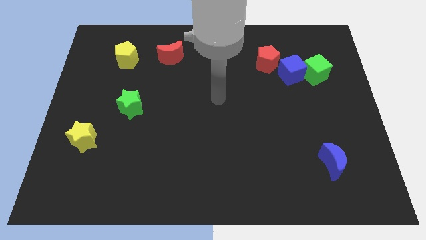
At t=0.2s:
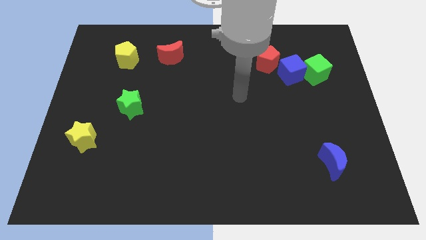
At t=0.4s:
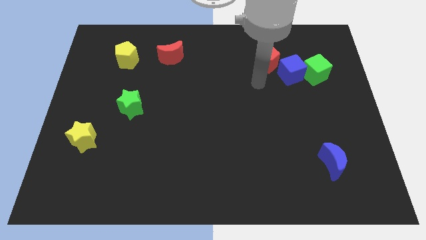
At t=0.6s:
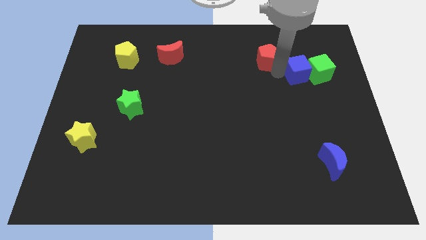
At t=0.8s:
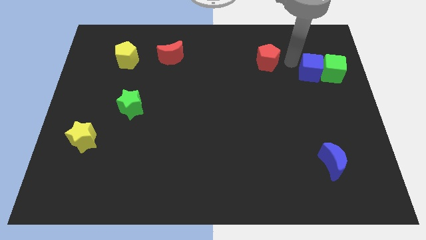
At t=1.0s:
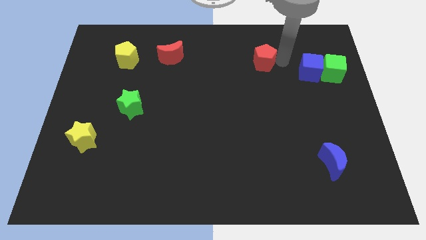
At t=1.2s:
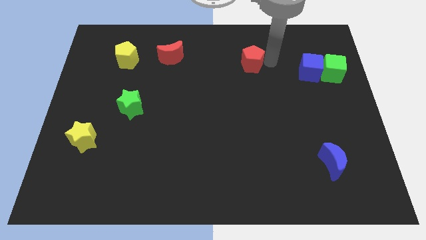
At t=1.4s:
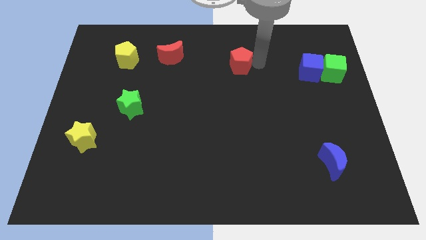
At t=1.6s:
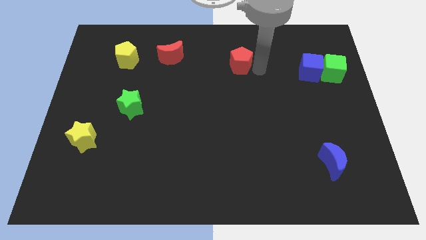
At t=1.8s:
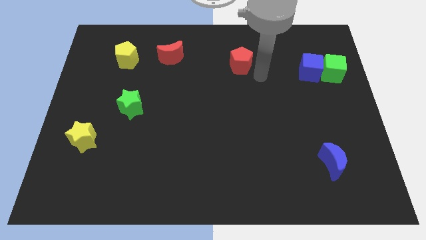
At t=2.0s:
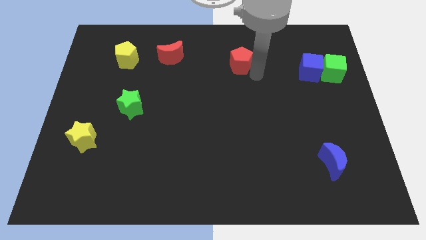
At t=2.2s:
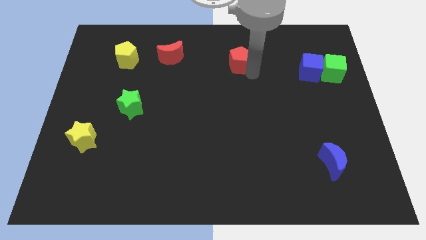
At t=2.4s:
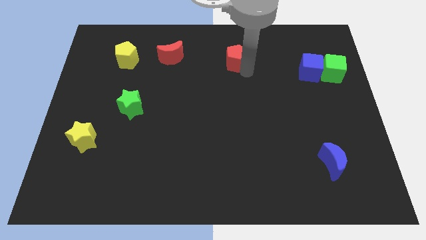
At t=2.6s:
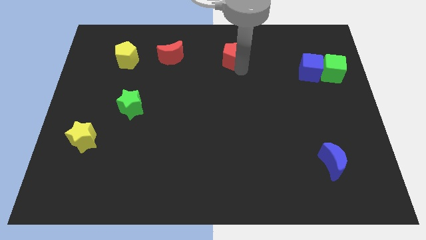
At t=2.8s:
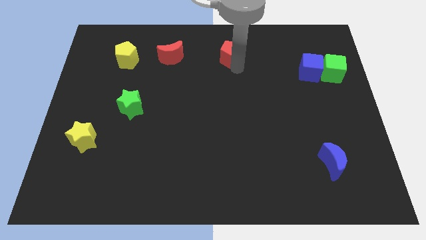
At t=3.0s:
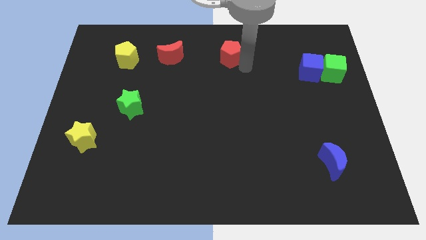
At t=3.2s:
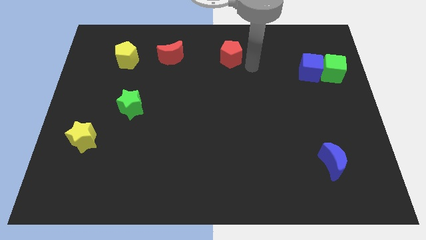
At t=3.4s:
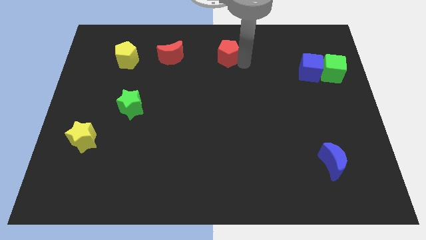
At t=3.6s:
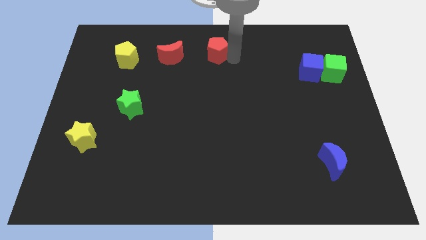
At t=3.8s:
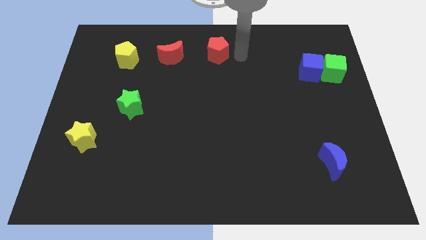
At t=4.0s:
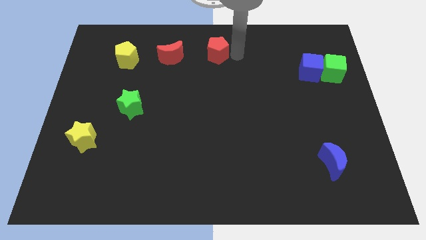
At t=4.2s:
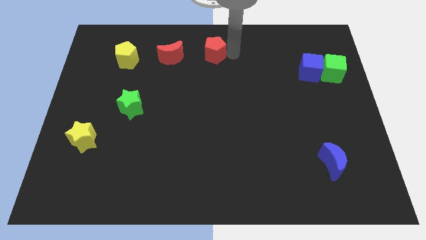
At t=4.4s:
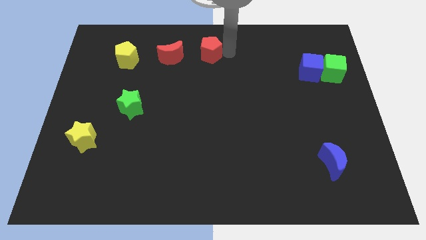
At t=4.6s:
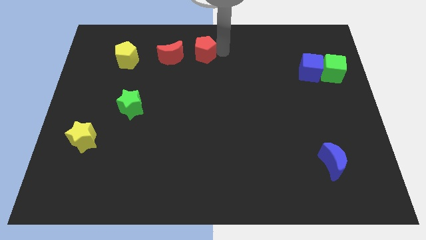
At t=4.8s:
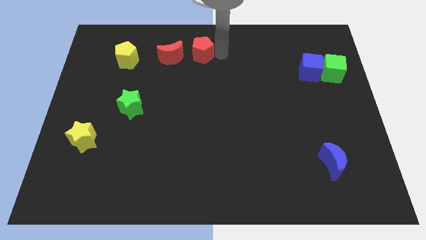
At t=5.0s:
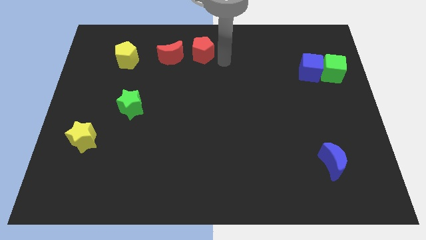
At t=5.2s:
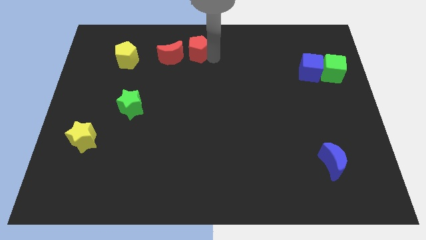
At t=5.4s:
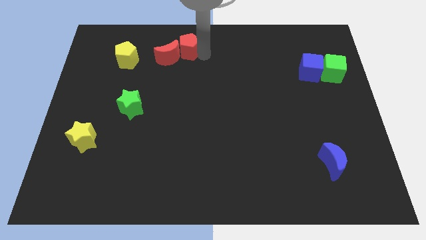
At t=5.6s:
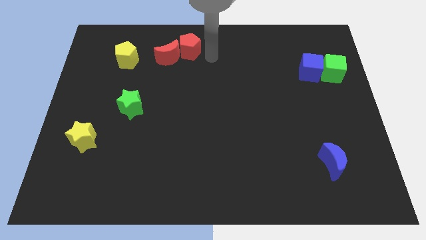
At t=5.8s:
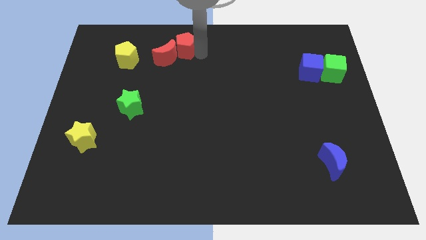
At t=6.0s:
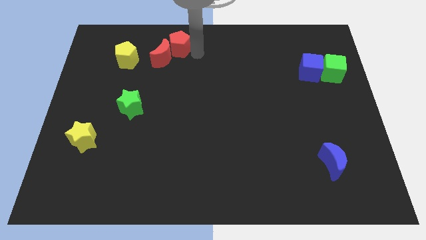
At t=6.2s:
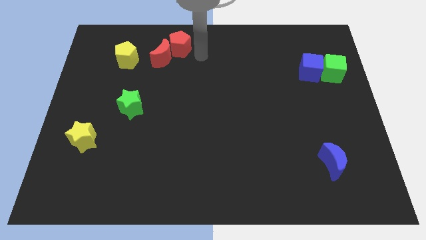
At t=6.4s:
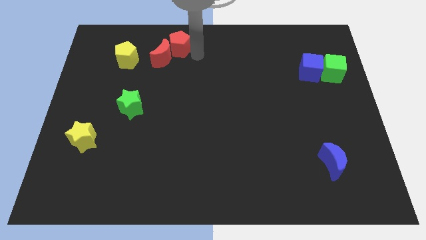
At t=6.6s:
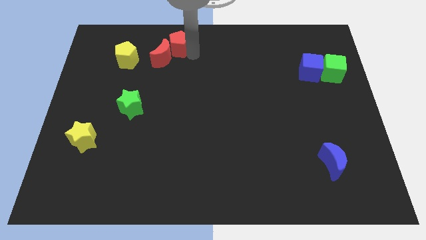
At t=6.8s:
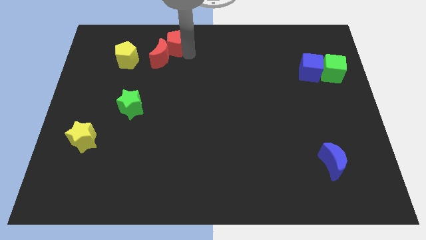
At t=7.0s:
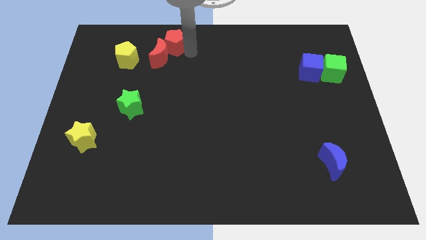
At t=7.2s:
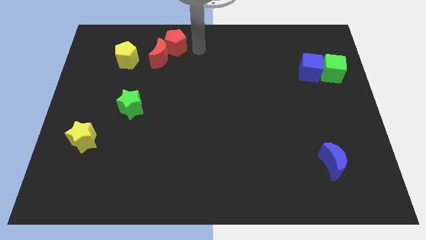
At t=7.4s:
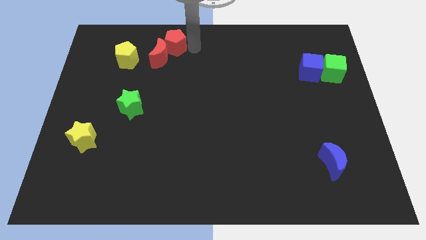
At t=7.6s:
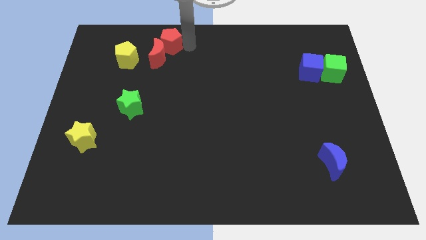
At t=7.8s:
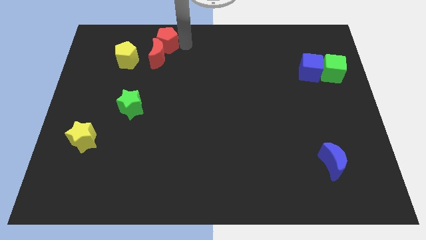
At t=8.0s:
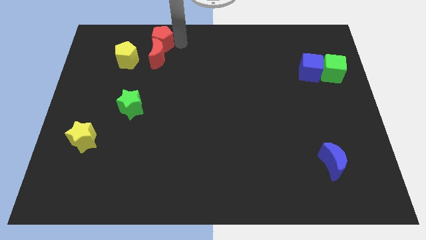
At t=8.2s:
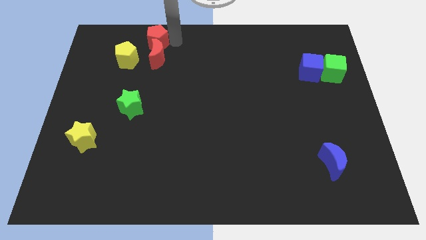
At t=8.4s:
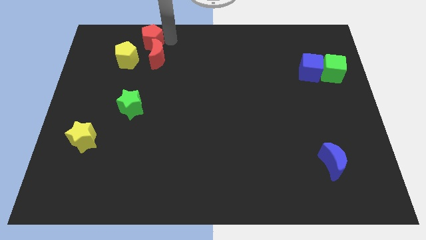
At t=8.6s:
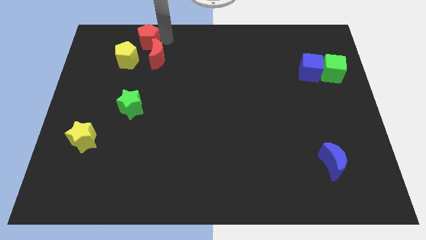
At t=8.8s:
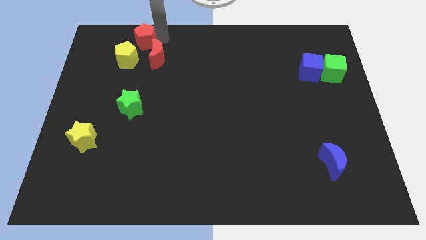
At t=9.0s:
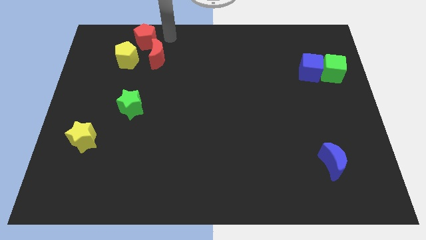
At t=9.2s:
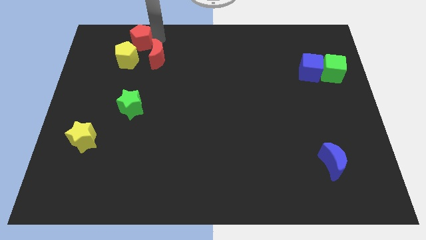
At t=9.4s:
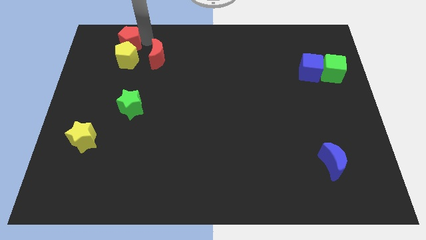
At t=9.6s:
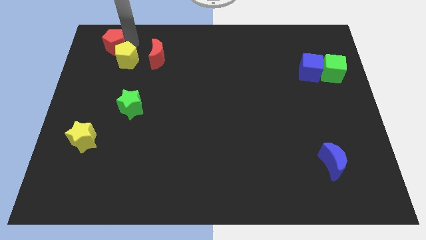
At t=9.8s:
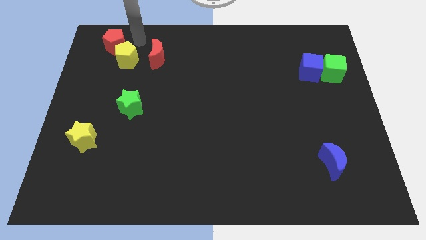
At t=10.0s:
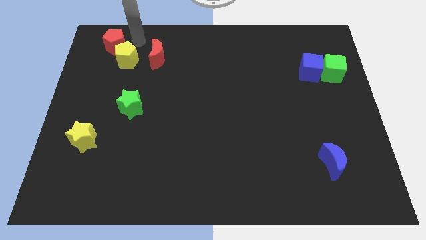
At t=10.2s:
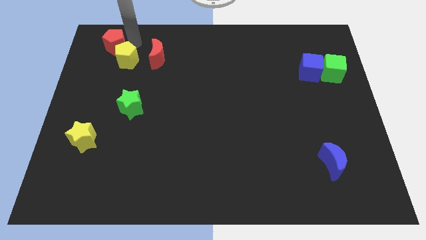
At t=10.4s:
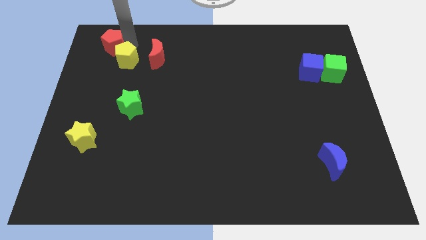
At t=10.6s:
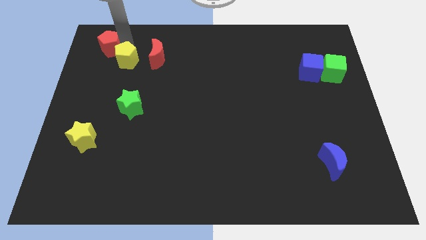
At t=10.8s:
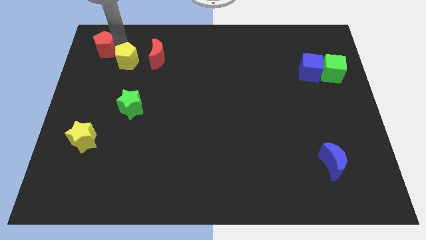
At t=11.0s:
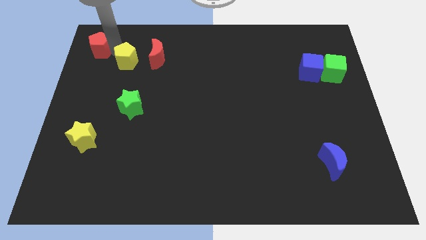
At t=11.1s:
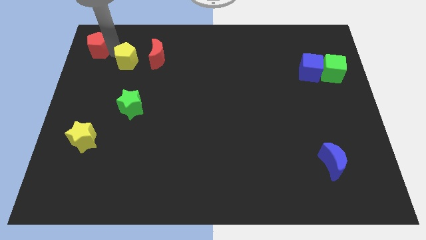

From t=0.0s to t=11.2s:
push the red pentagon to the upper left corner

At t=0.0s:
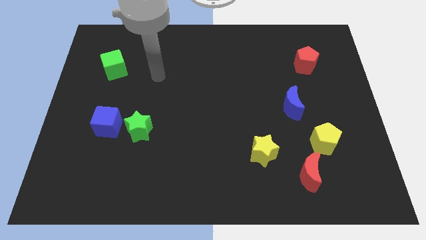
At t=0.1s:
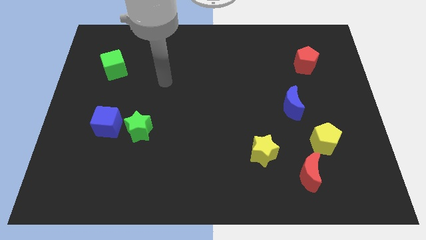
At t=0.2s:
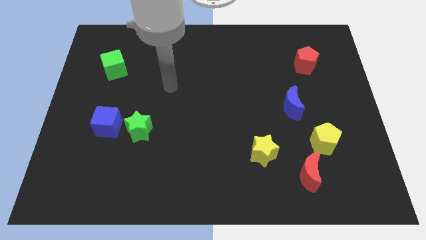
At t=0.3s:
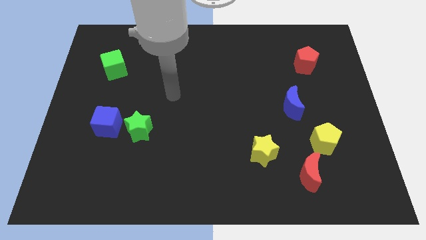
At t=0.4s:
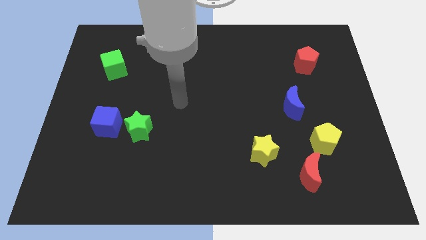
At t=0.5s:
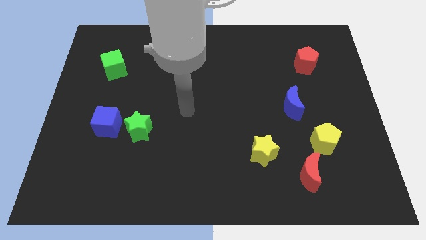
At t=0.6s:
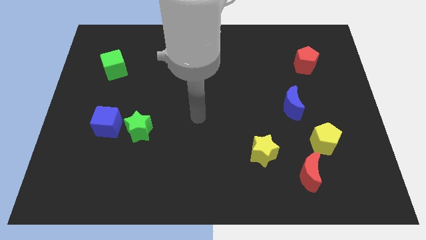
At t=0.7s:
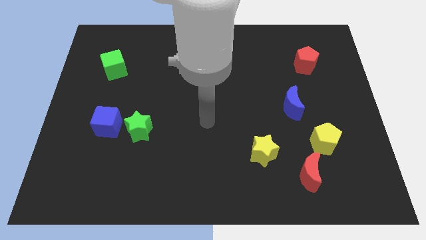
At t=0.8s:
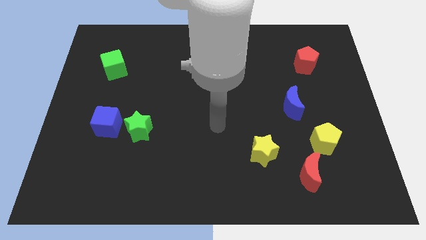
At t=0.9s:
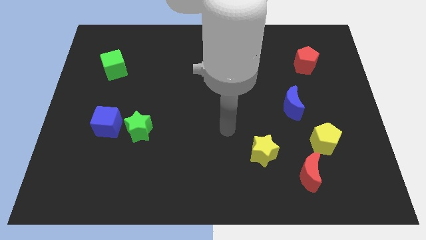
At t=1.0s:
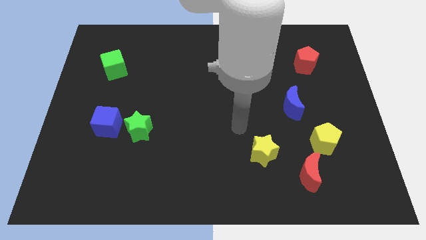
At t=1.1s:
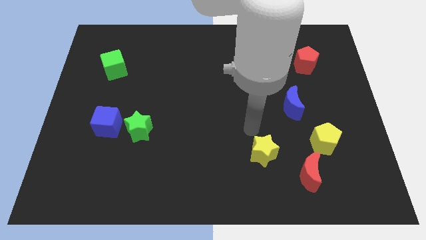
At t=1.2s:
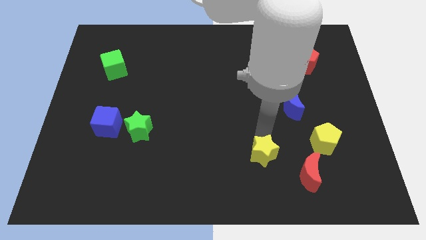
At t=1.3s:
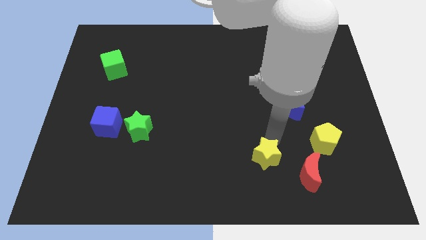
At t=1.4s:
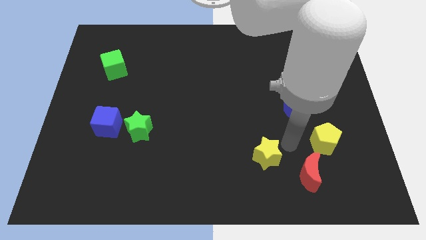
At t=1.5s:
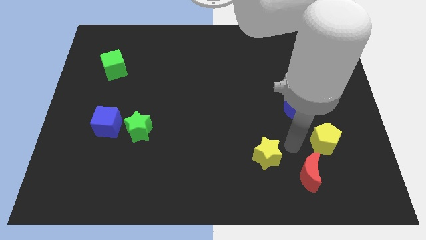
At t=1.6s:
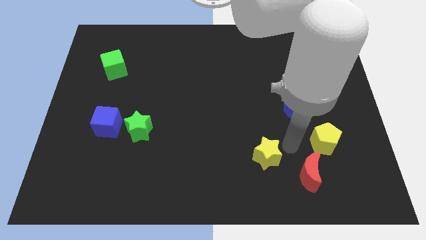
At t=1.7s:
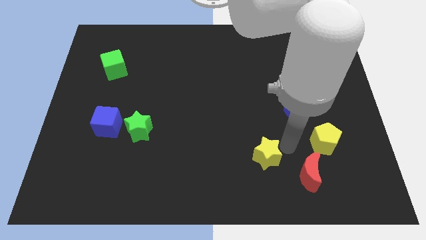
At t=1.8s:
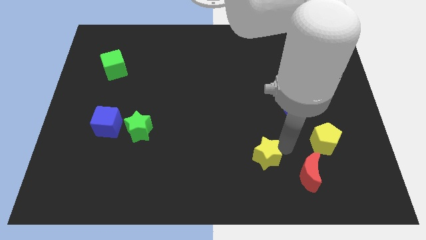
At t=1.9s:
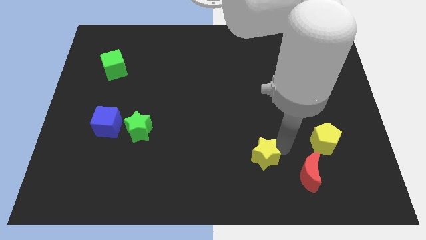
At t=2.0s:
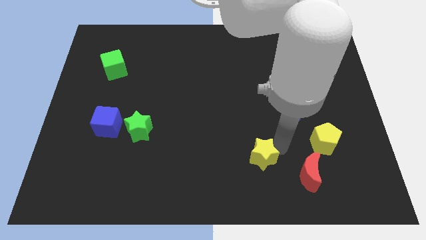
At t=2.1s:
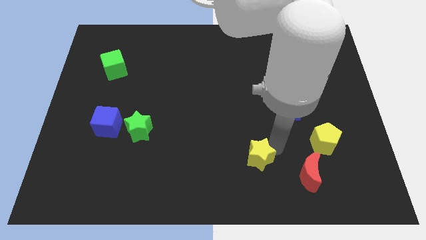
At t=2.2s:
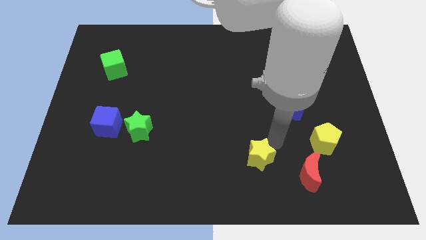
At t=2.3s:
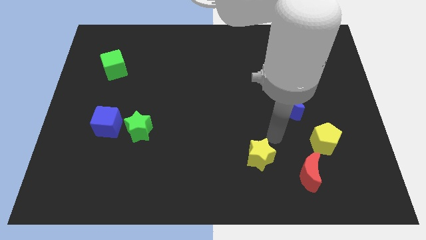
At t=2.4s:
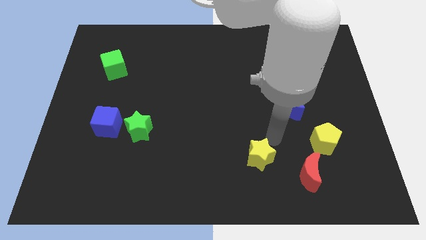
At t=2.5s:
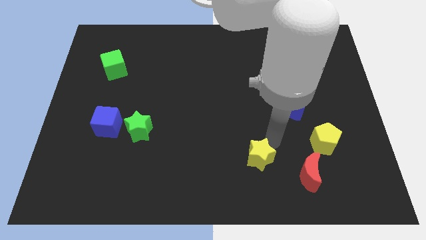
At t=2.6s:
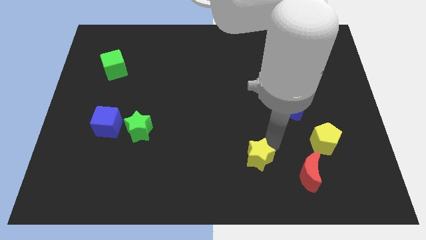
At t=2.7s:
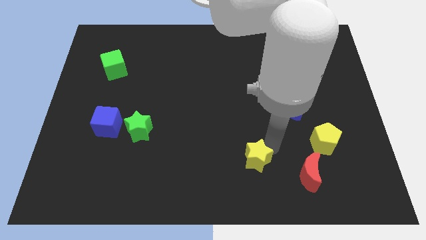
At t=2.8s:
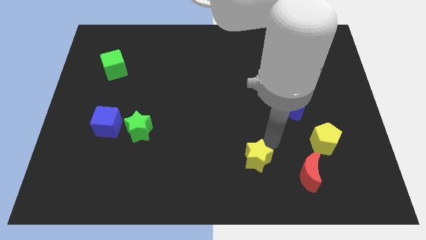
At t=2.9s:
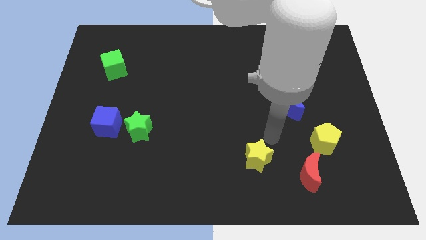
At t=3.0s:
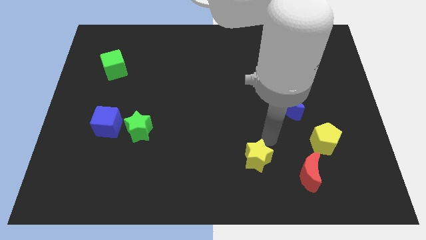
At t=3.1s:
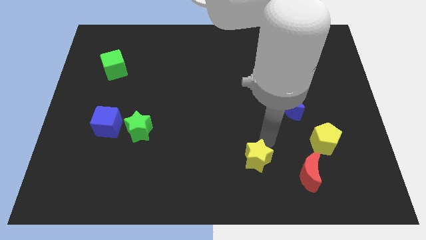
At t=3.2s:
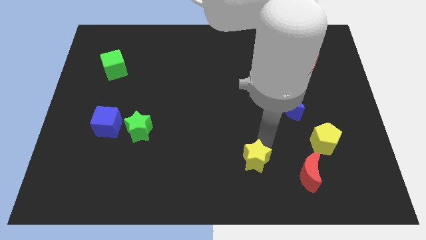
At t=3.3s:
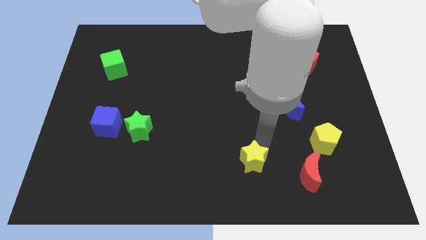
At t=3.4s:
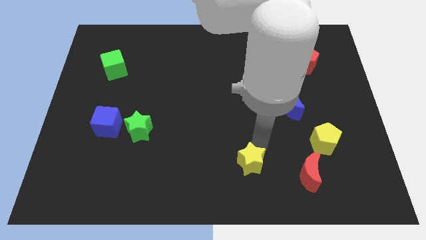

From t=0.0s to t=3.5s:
move the yellow star to the bottom side
